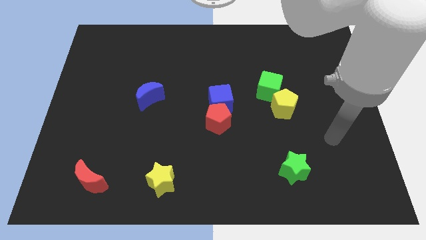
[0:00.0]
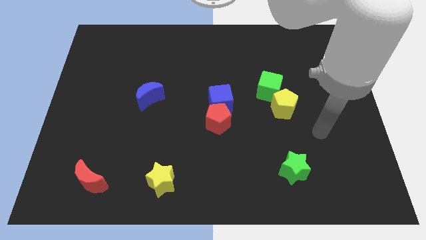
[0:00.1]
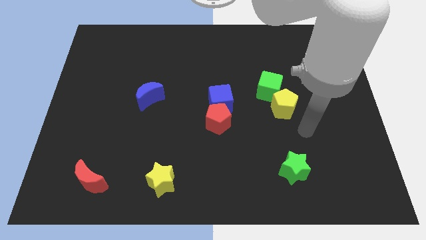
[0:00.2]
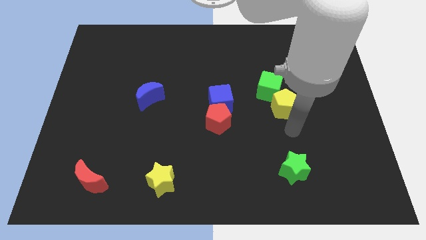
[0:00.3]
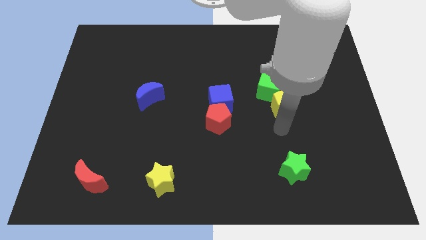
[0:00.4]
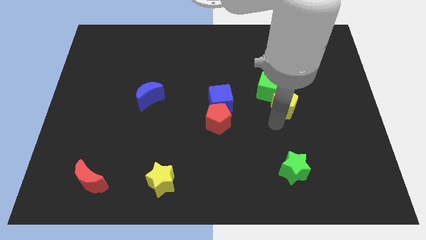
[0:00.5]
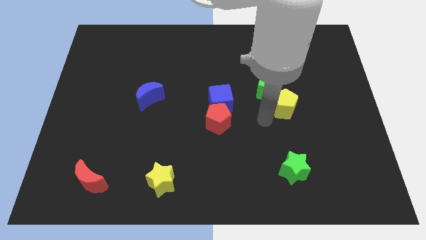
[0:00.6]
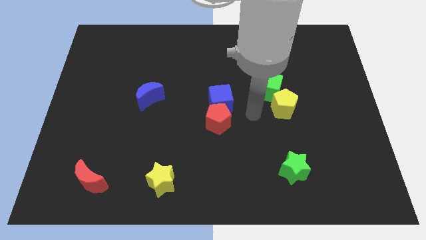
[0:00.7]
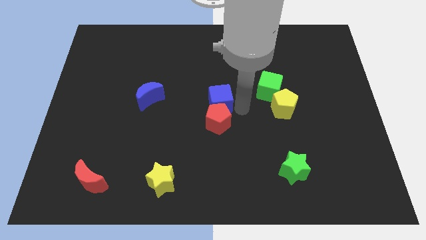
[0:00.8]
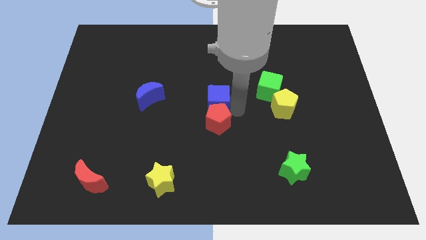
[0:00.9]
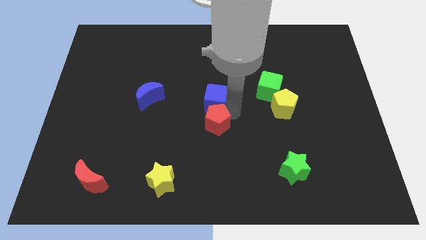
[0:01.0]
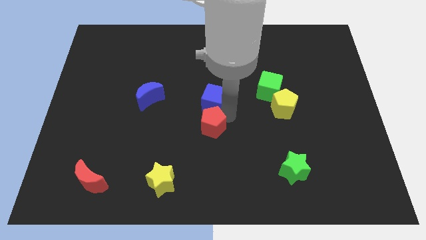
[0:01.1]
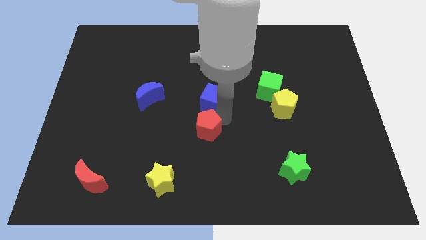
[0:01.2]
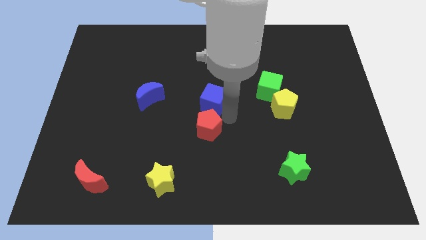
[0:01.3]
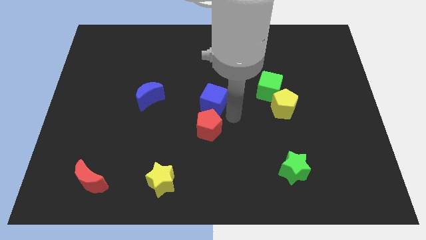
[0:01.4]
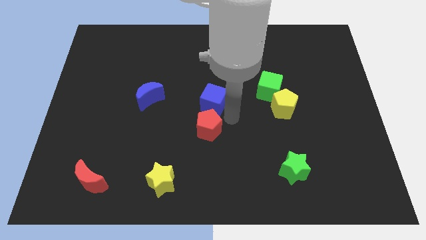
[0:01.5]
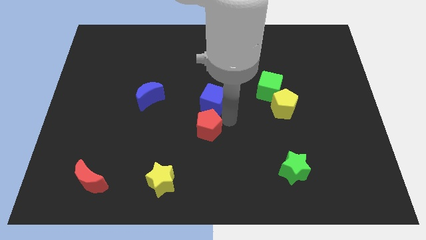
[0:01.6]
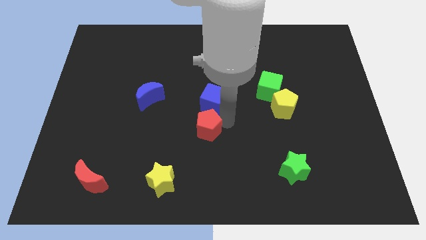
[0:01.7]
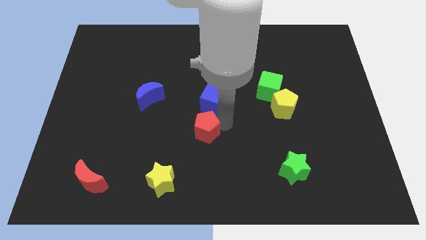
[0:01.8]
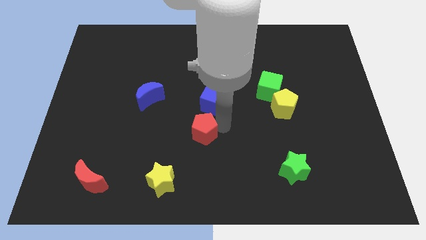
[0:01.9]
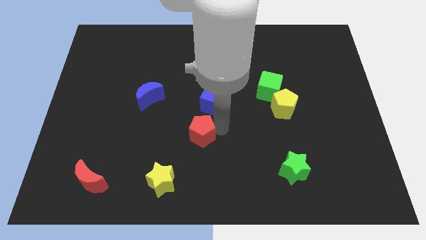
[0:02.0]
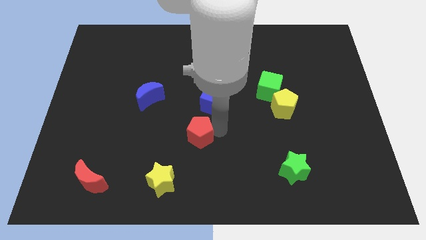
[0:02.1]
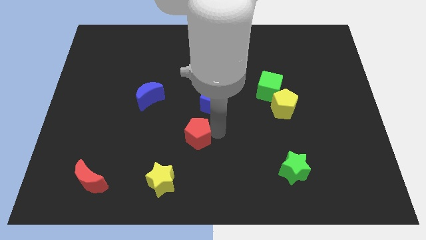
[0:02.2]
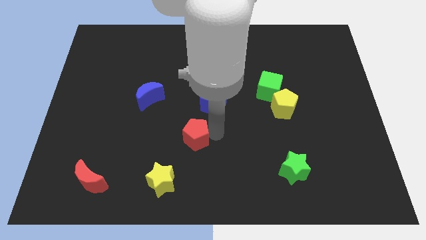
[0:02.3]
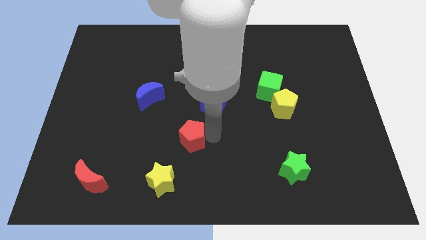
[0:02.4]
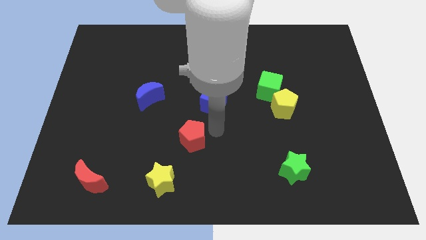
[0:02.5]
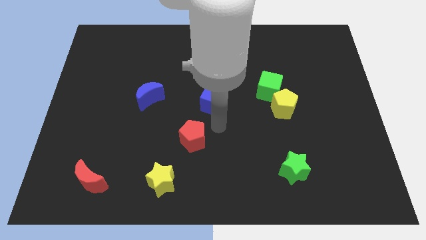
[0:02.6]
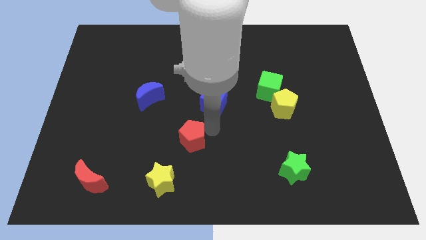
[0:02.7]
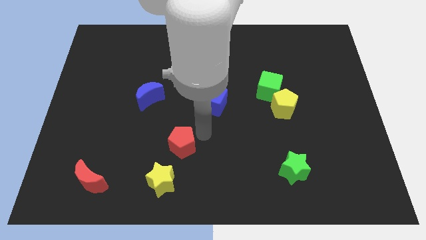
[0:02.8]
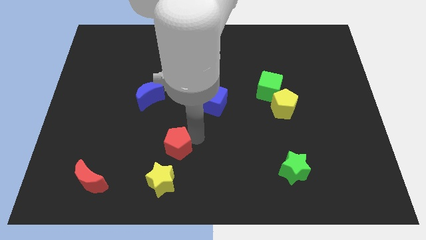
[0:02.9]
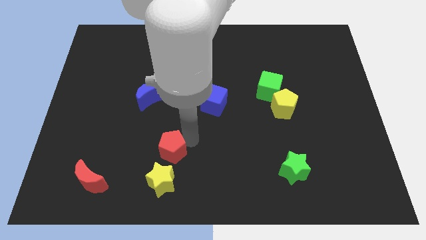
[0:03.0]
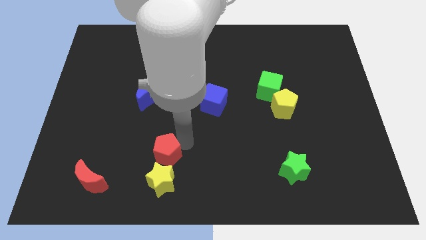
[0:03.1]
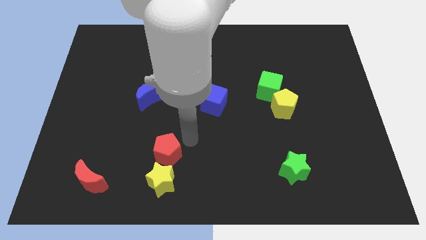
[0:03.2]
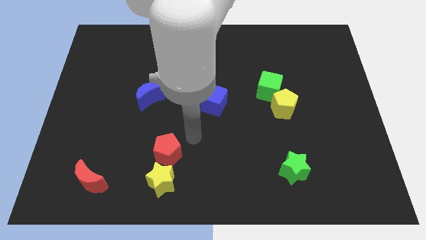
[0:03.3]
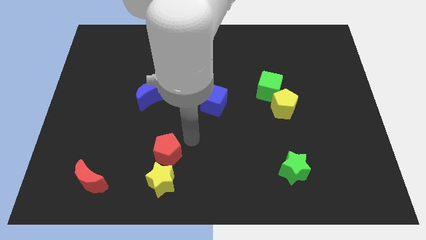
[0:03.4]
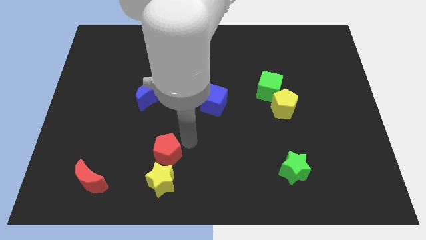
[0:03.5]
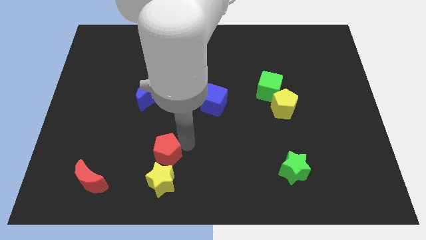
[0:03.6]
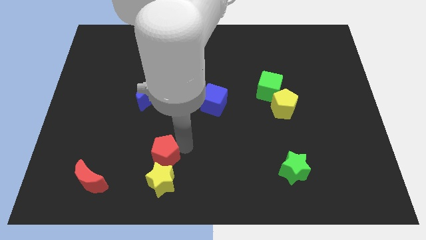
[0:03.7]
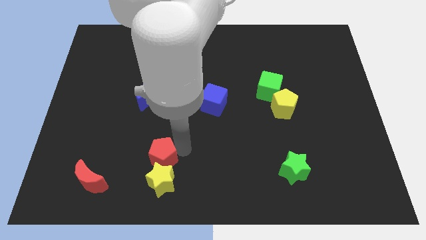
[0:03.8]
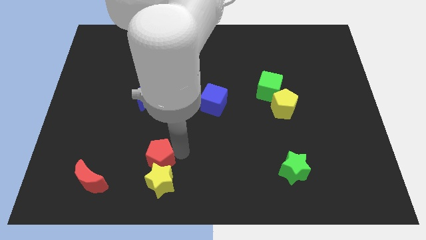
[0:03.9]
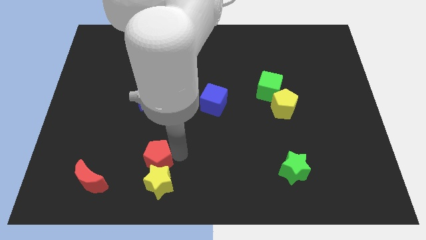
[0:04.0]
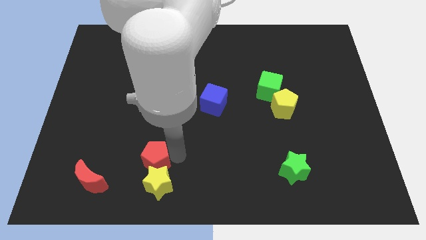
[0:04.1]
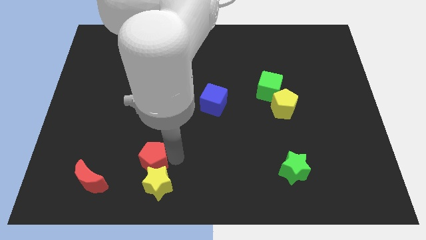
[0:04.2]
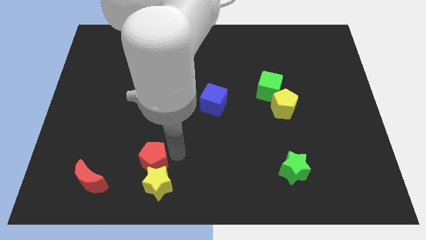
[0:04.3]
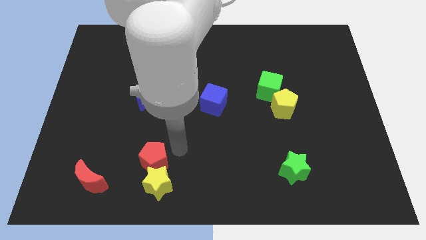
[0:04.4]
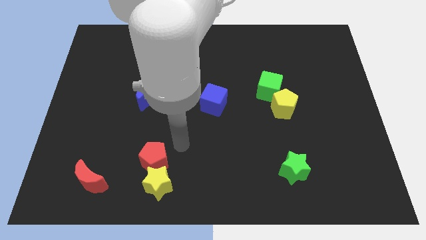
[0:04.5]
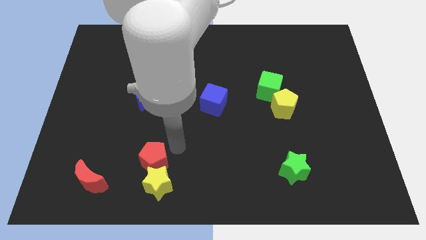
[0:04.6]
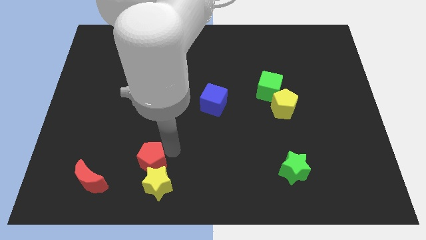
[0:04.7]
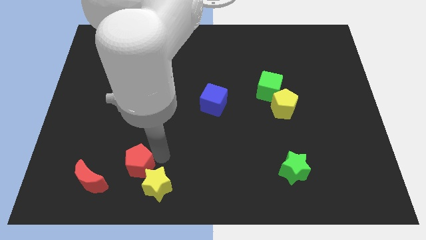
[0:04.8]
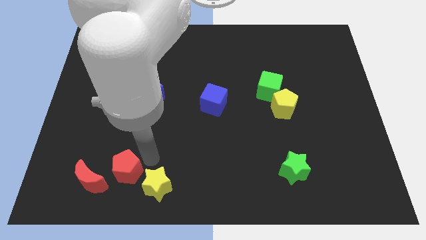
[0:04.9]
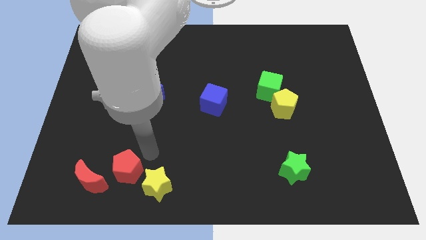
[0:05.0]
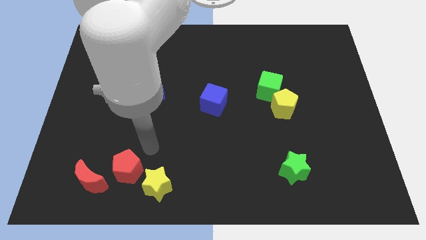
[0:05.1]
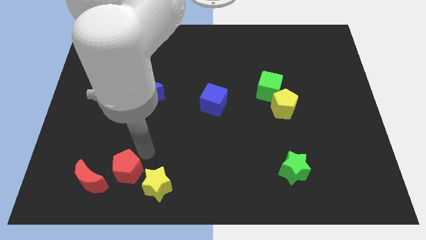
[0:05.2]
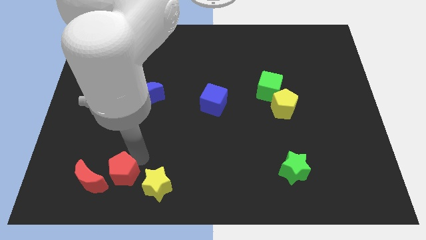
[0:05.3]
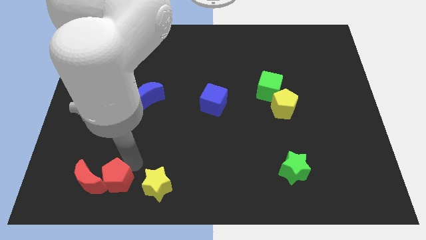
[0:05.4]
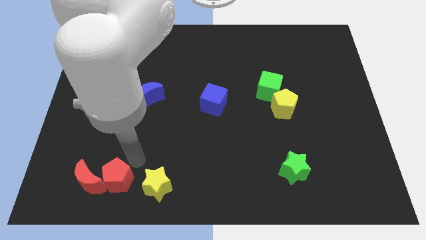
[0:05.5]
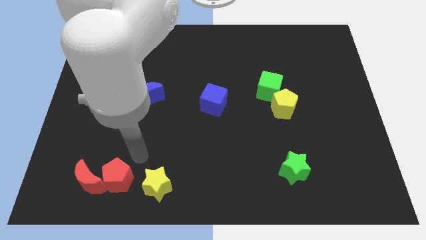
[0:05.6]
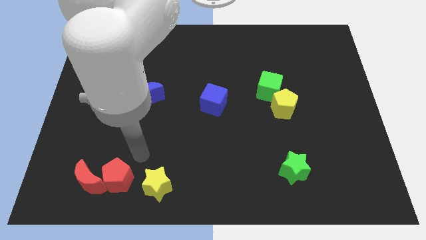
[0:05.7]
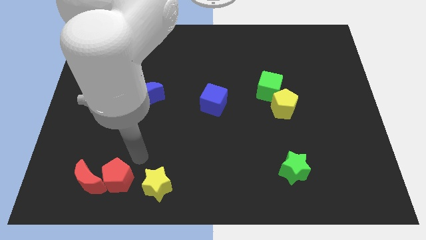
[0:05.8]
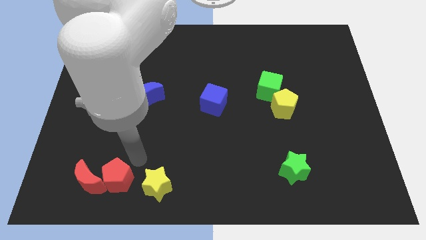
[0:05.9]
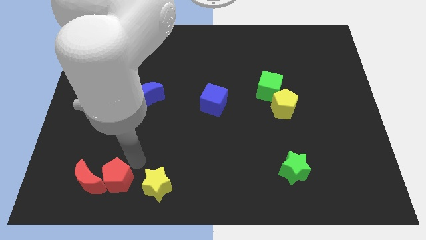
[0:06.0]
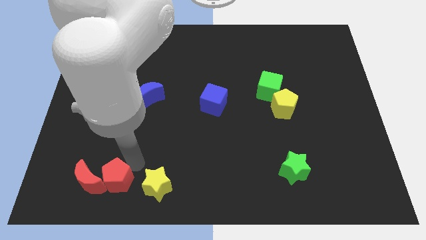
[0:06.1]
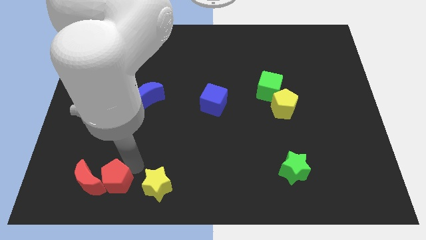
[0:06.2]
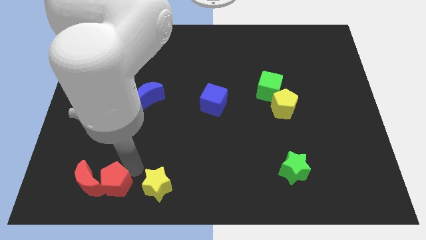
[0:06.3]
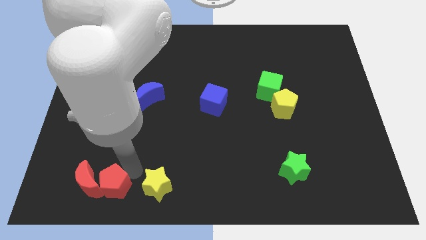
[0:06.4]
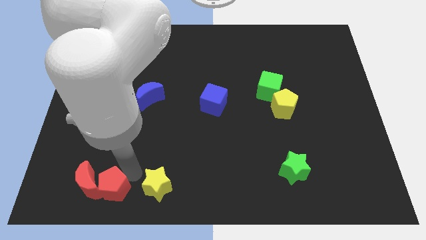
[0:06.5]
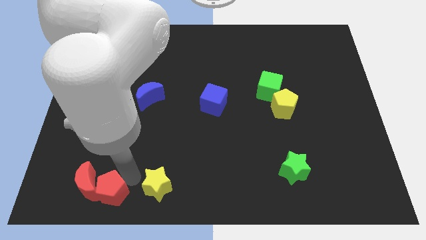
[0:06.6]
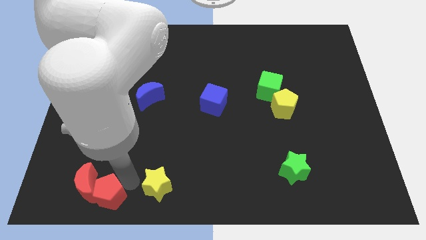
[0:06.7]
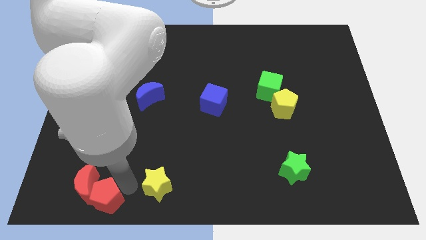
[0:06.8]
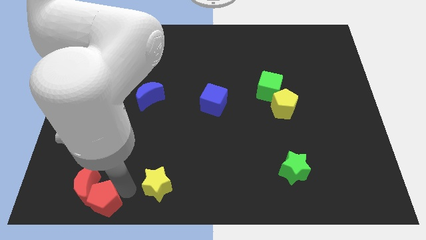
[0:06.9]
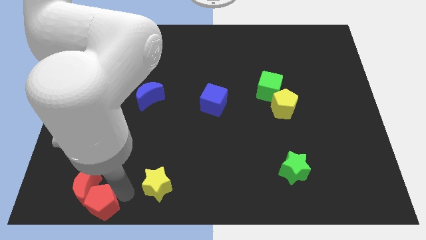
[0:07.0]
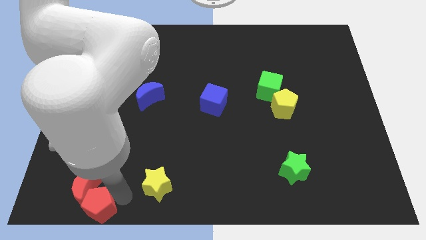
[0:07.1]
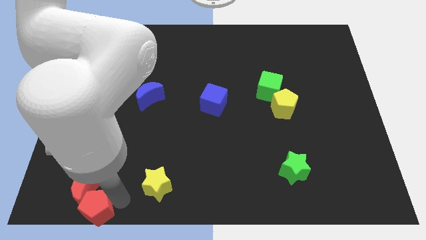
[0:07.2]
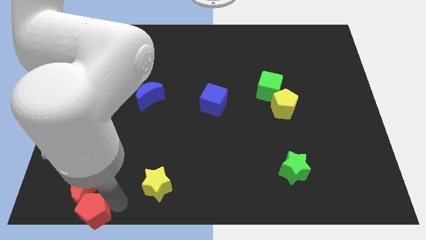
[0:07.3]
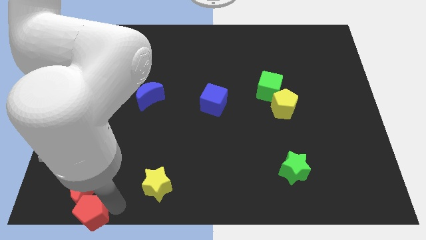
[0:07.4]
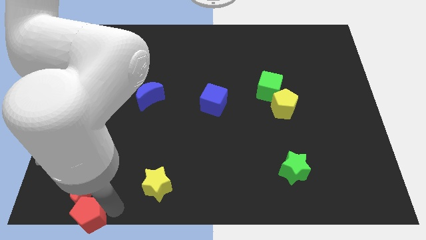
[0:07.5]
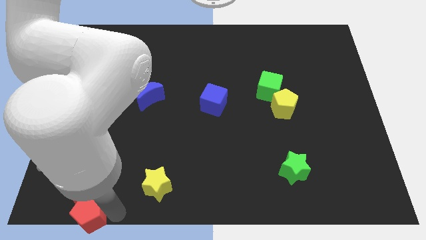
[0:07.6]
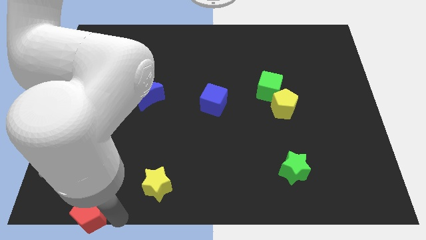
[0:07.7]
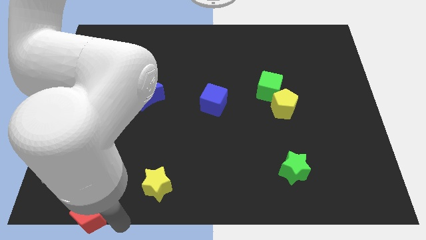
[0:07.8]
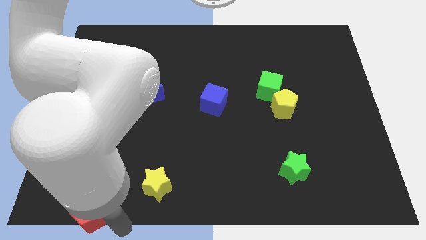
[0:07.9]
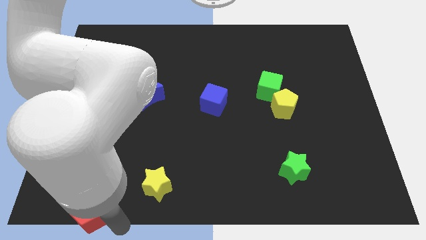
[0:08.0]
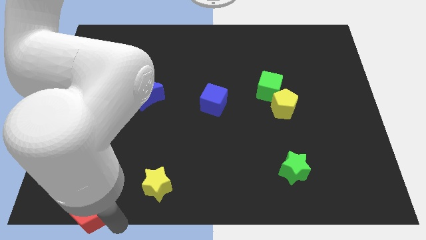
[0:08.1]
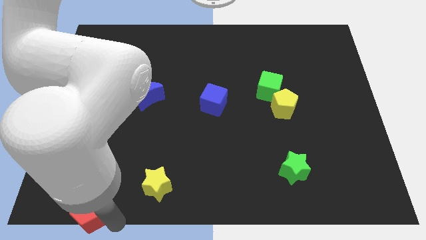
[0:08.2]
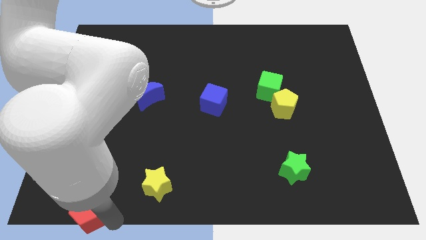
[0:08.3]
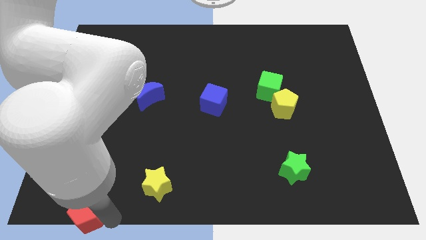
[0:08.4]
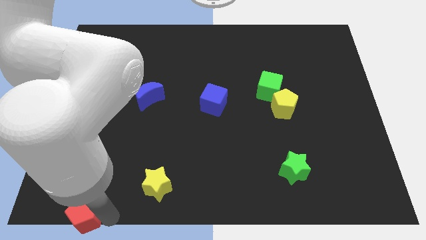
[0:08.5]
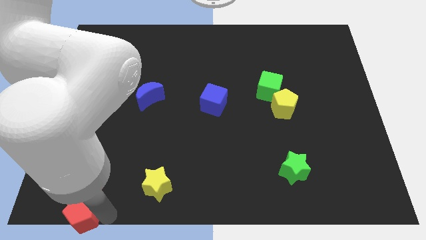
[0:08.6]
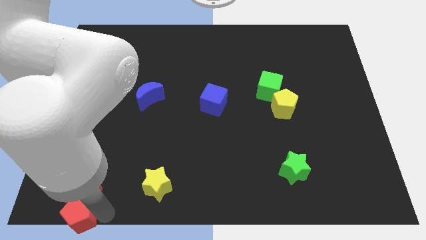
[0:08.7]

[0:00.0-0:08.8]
put the red pentagon to the lower left corner
